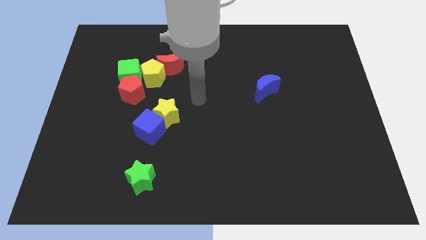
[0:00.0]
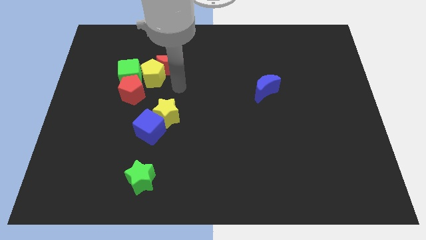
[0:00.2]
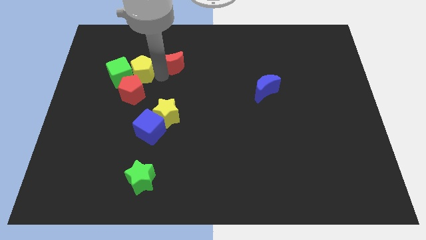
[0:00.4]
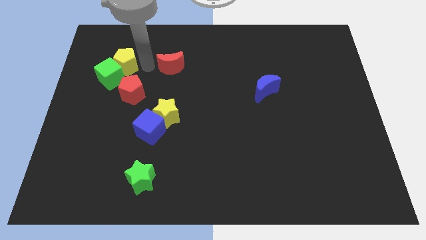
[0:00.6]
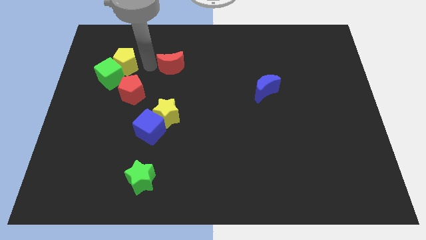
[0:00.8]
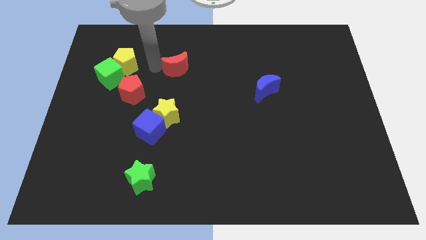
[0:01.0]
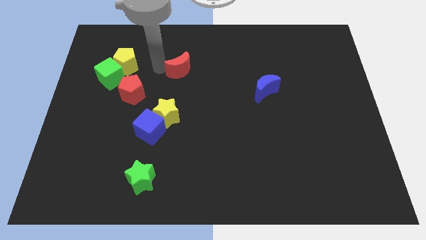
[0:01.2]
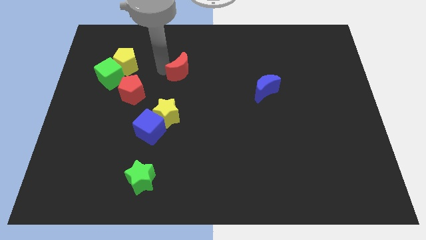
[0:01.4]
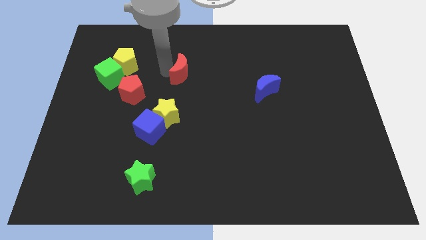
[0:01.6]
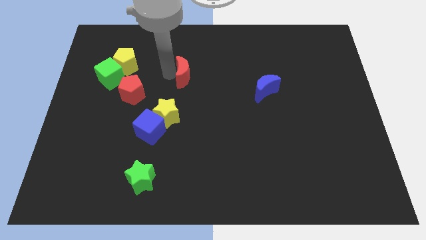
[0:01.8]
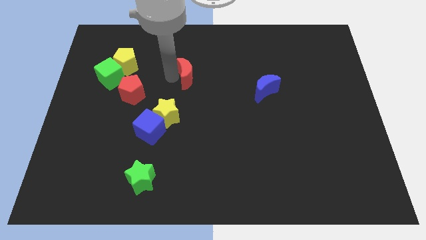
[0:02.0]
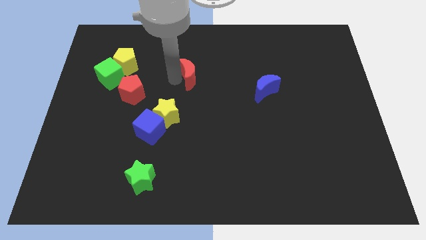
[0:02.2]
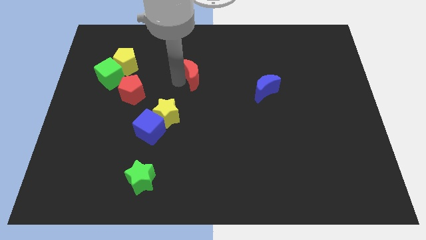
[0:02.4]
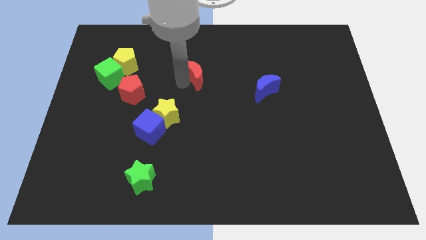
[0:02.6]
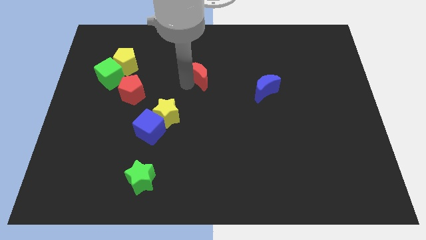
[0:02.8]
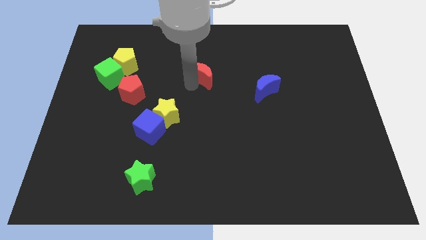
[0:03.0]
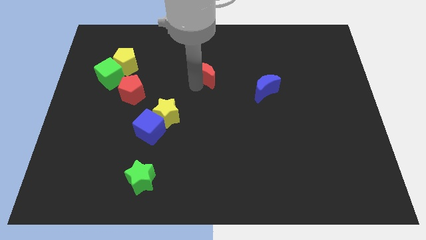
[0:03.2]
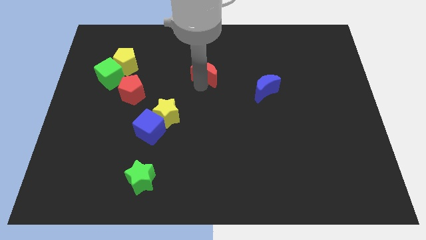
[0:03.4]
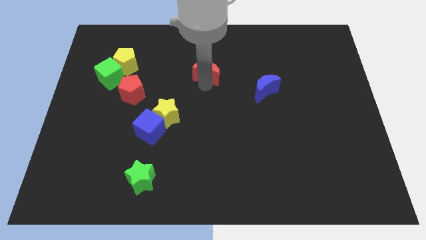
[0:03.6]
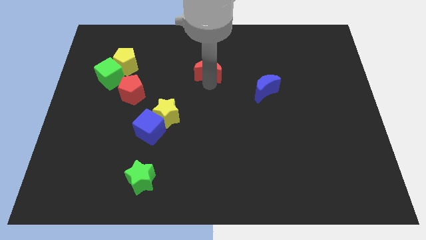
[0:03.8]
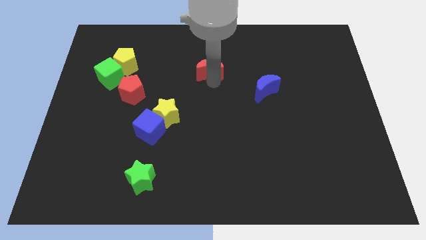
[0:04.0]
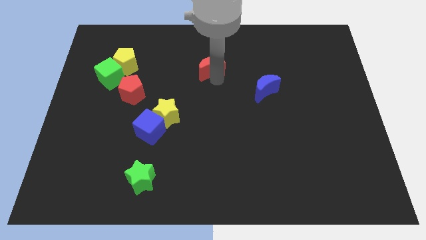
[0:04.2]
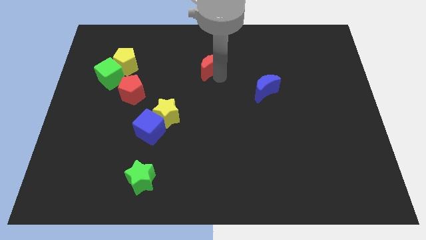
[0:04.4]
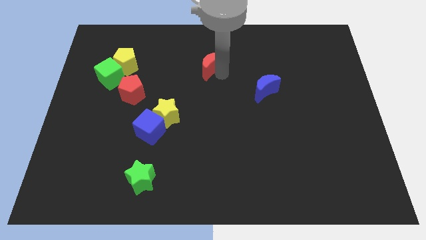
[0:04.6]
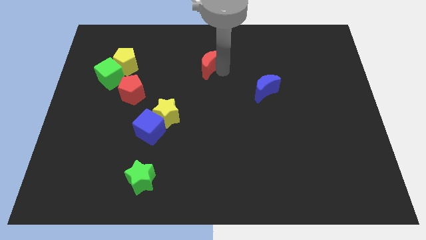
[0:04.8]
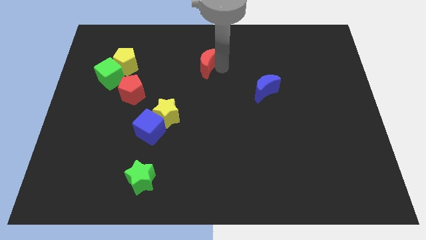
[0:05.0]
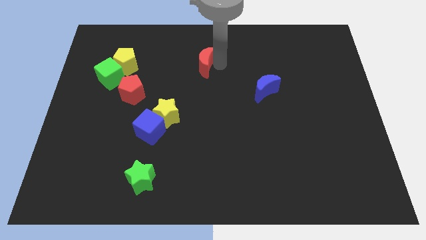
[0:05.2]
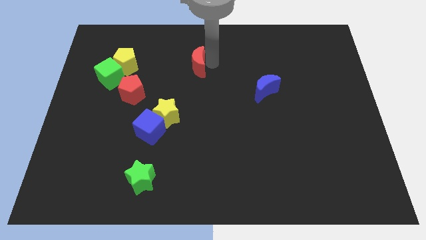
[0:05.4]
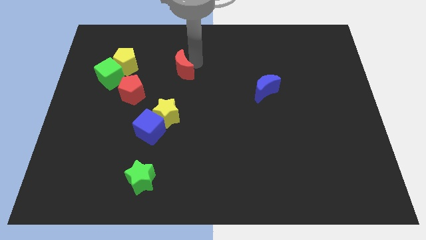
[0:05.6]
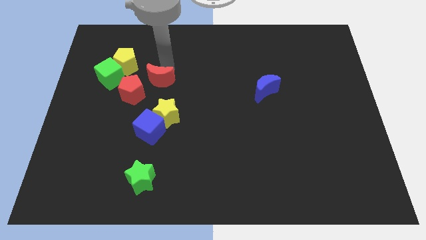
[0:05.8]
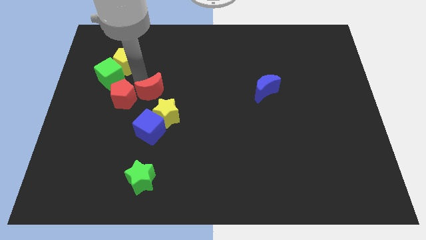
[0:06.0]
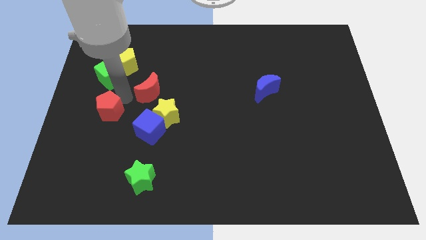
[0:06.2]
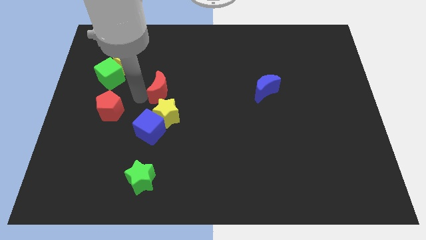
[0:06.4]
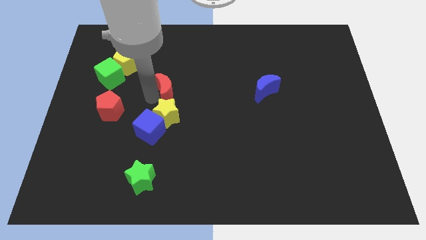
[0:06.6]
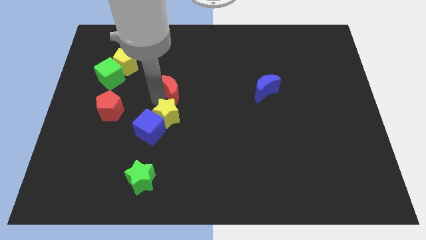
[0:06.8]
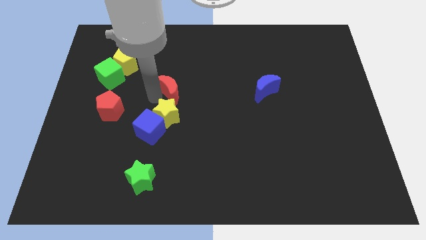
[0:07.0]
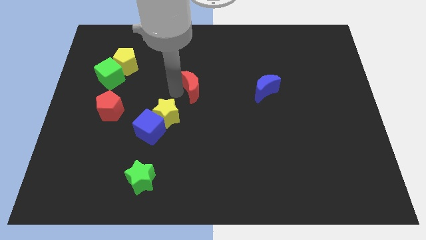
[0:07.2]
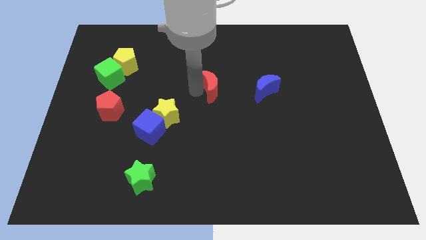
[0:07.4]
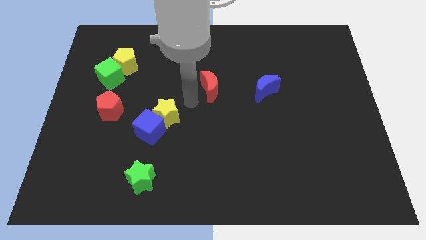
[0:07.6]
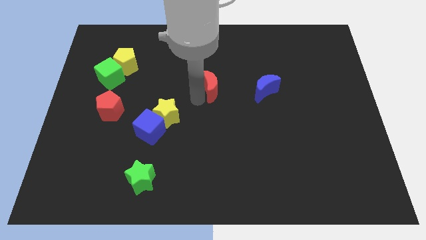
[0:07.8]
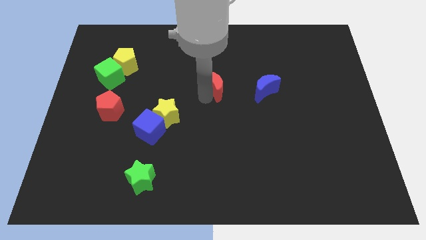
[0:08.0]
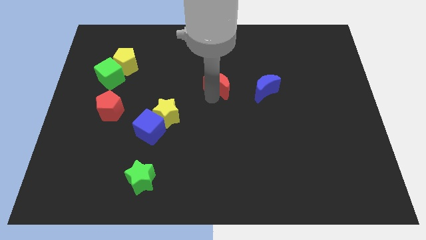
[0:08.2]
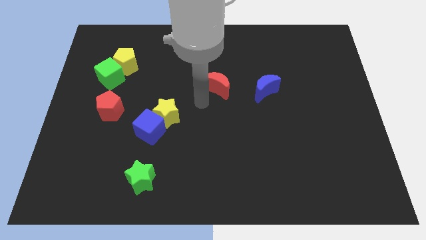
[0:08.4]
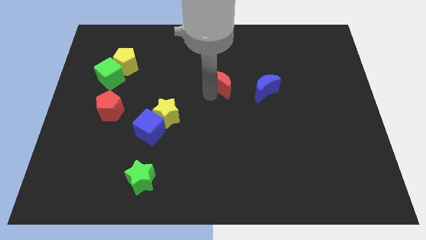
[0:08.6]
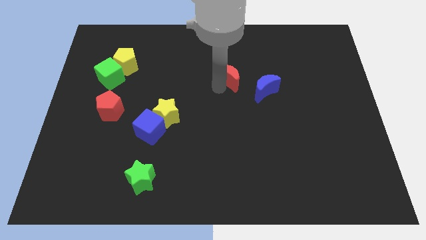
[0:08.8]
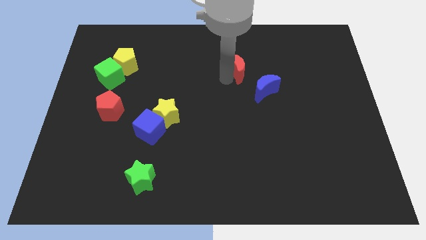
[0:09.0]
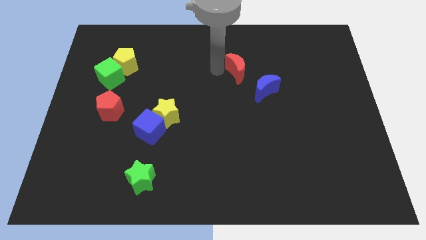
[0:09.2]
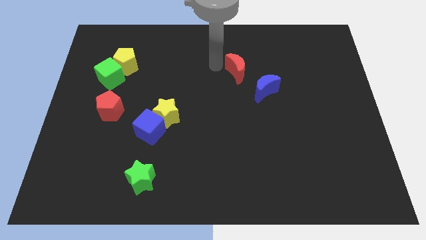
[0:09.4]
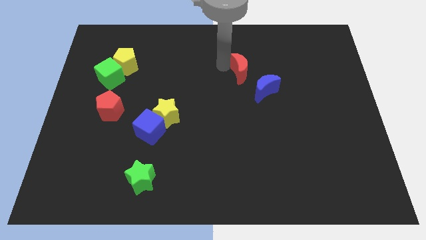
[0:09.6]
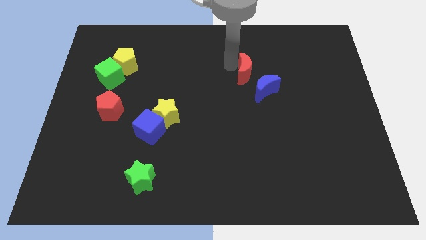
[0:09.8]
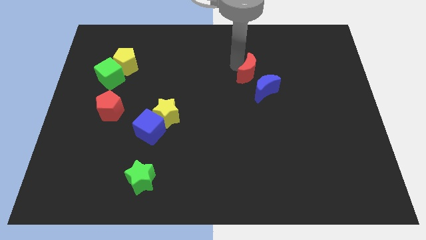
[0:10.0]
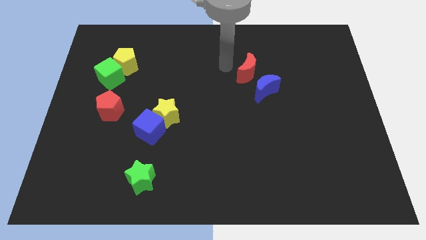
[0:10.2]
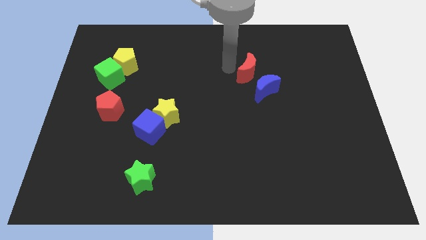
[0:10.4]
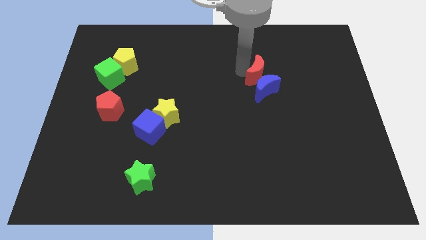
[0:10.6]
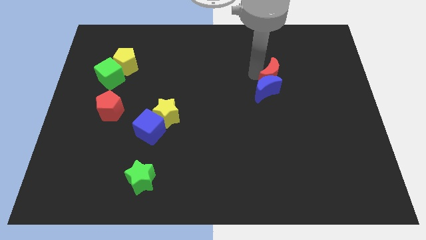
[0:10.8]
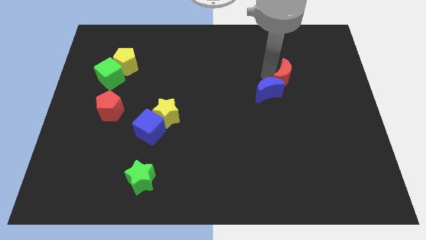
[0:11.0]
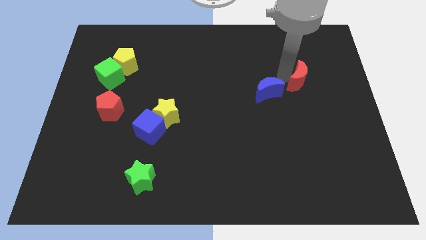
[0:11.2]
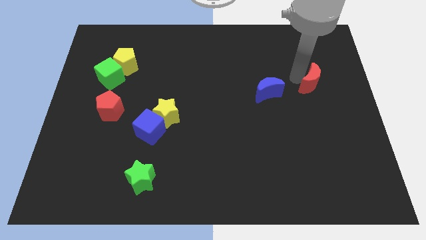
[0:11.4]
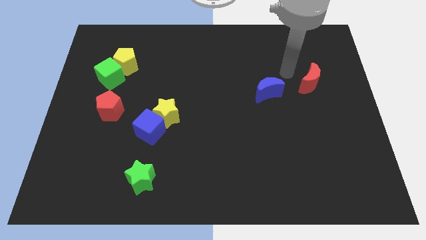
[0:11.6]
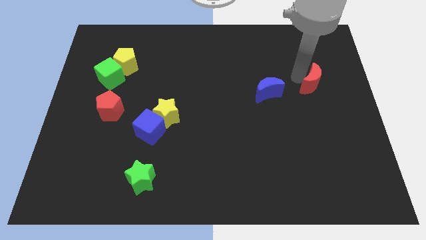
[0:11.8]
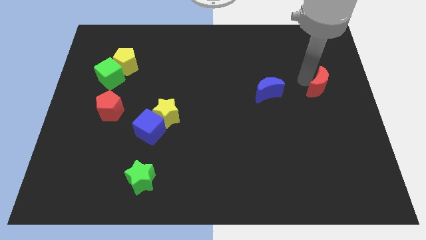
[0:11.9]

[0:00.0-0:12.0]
push the red moon to the right side of the board

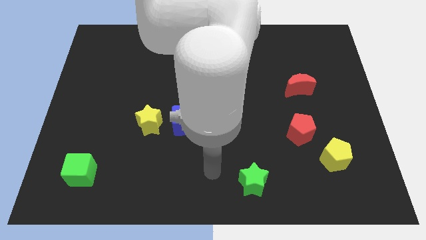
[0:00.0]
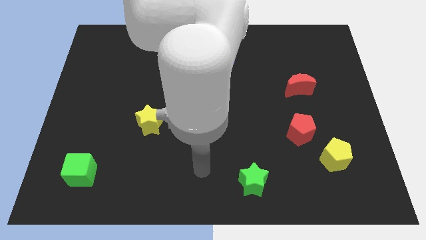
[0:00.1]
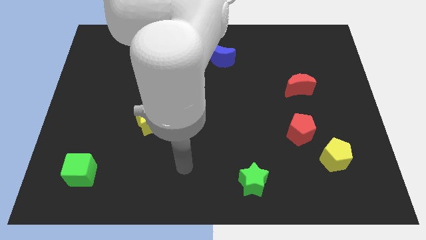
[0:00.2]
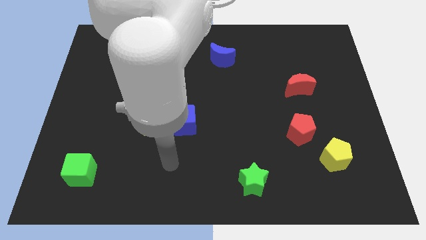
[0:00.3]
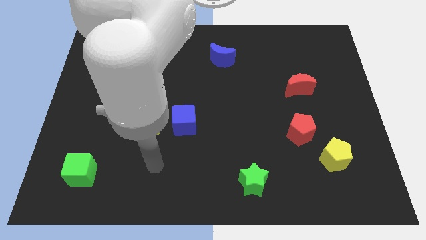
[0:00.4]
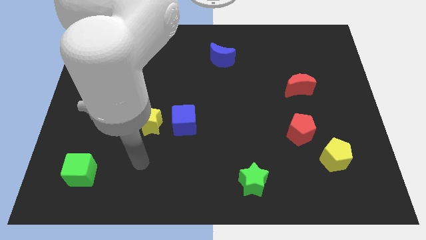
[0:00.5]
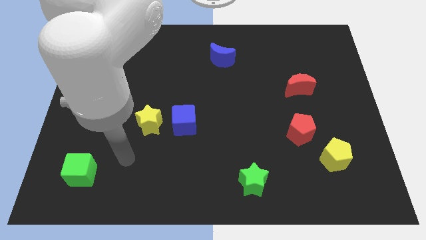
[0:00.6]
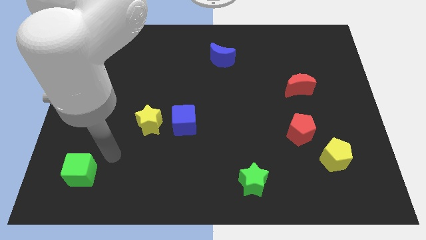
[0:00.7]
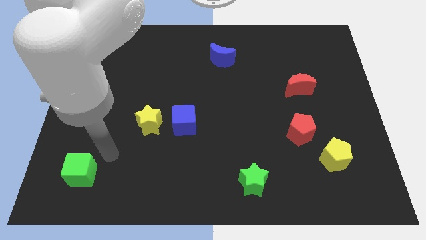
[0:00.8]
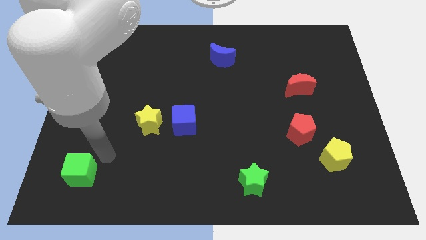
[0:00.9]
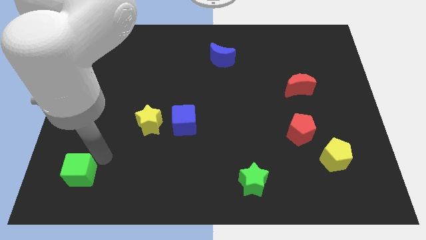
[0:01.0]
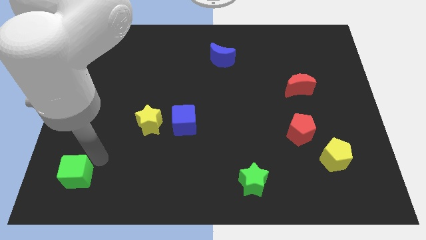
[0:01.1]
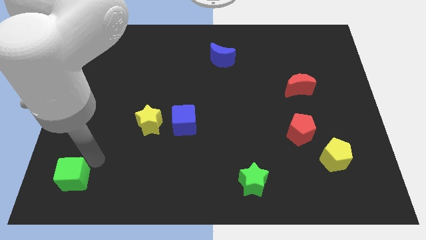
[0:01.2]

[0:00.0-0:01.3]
slide the green cube to the lower left corner
